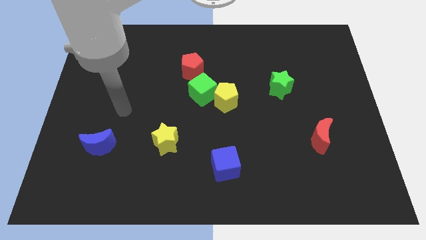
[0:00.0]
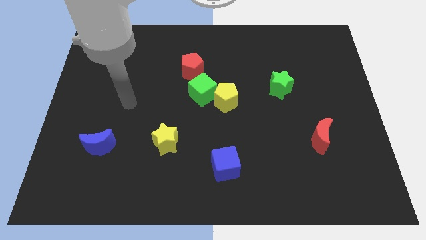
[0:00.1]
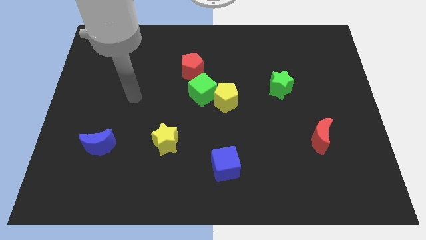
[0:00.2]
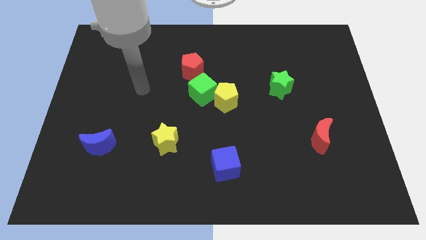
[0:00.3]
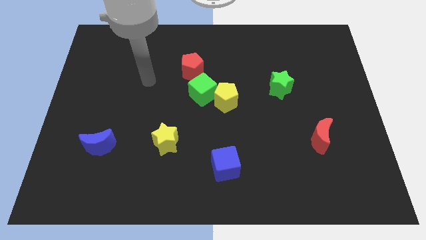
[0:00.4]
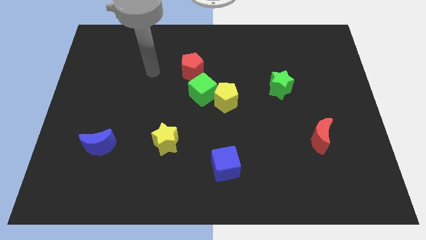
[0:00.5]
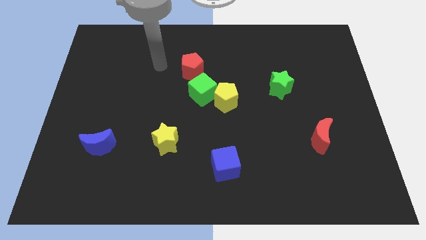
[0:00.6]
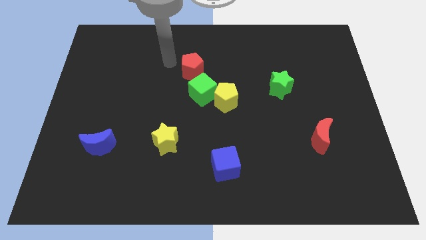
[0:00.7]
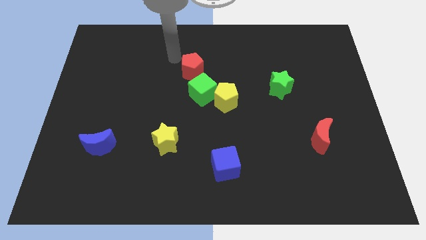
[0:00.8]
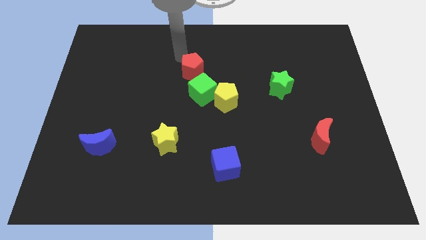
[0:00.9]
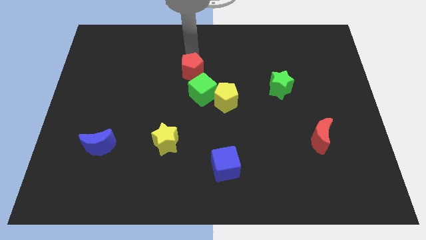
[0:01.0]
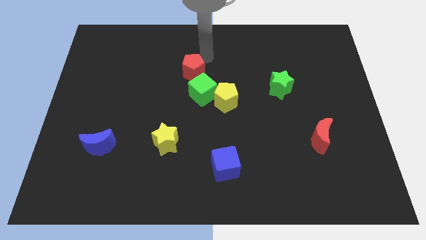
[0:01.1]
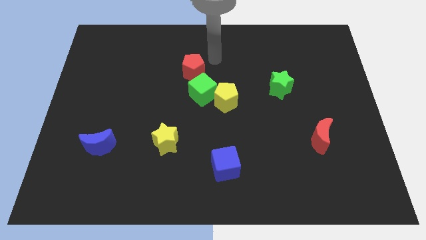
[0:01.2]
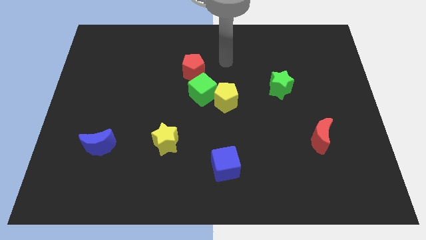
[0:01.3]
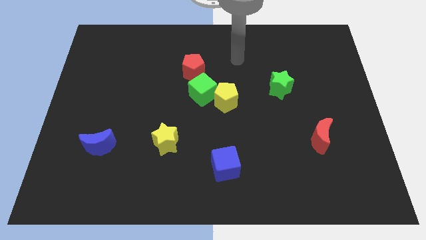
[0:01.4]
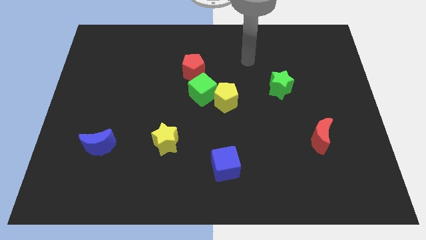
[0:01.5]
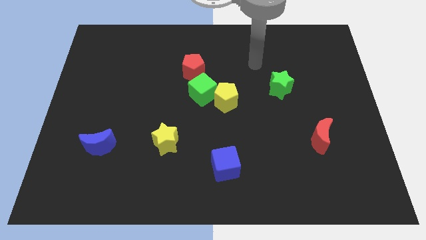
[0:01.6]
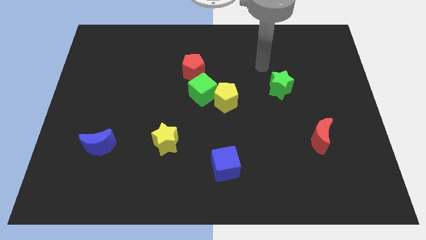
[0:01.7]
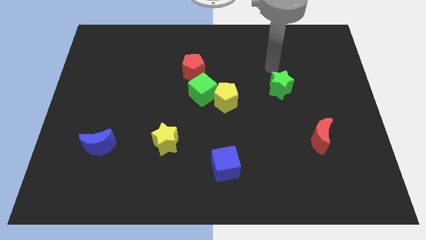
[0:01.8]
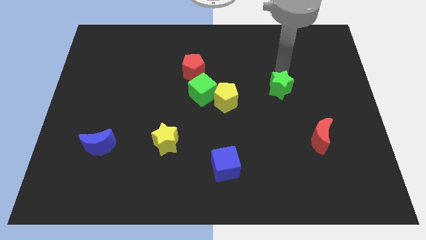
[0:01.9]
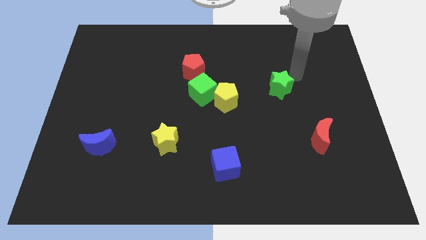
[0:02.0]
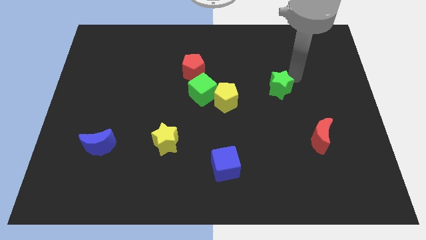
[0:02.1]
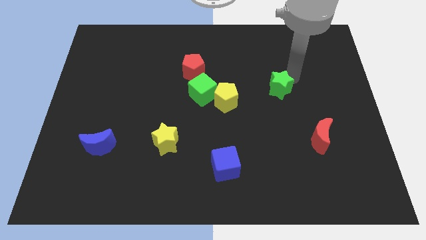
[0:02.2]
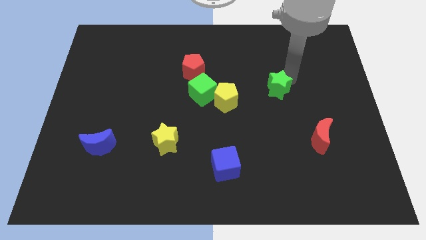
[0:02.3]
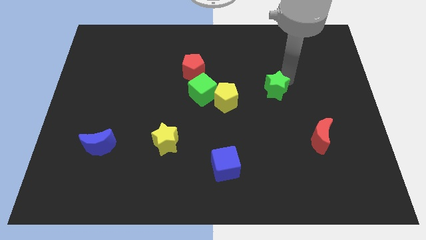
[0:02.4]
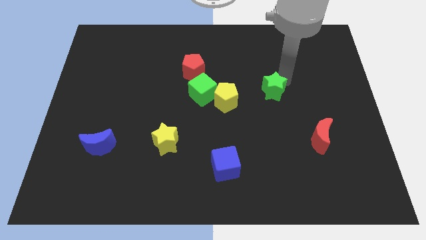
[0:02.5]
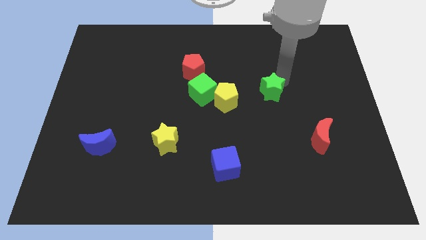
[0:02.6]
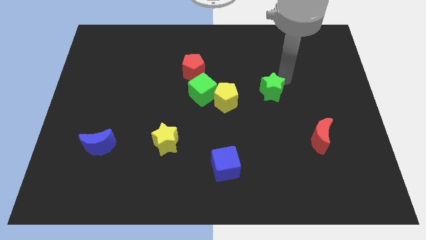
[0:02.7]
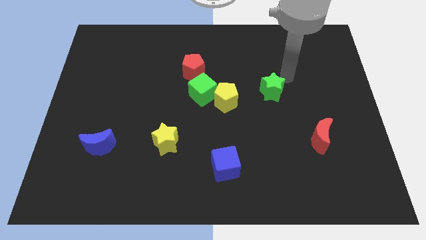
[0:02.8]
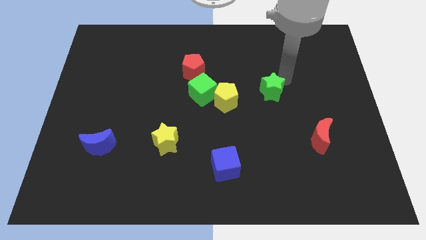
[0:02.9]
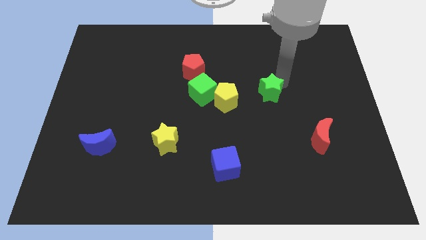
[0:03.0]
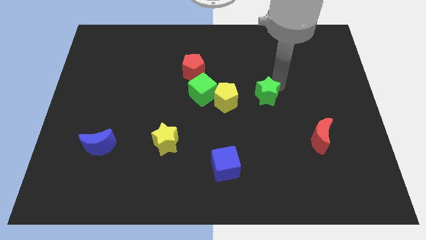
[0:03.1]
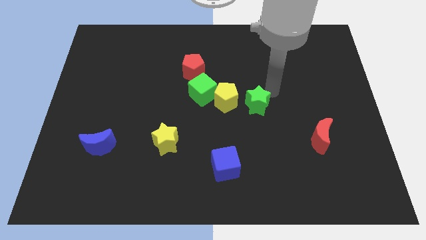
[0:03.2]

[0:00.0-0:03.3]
move the green star downwards and left diagonally a bit

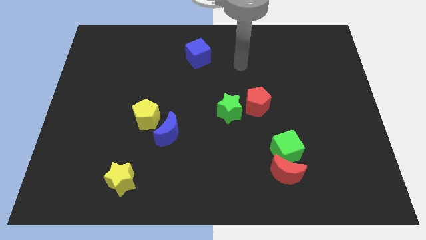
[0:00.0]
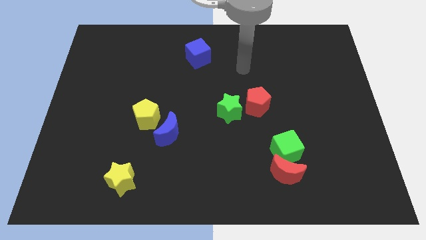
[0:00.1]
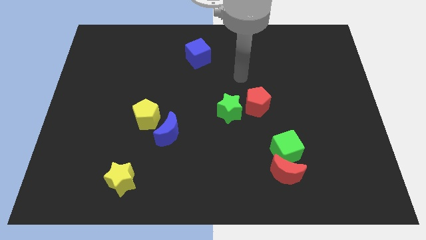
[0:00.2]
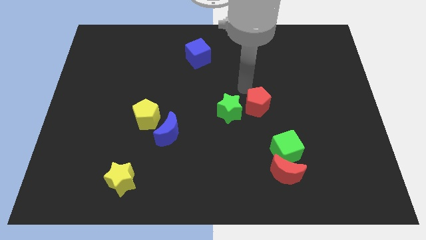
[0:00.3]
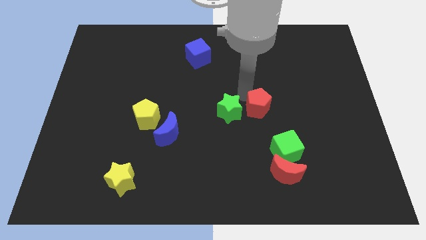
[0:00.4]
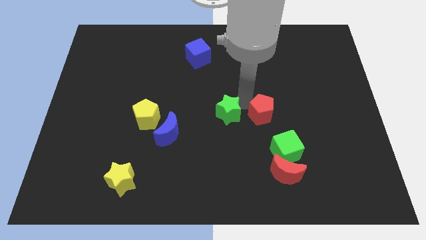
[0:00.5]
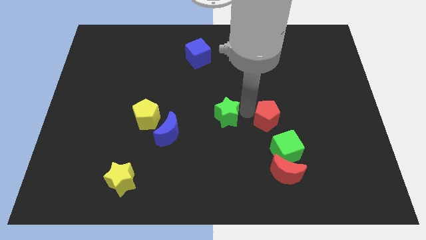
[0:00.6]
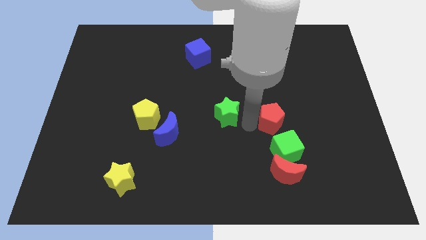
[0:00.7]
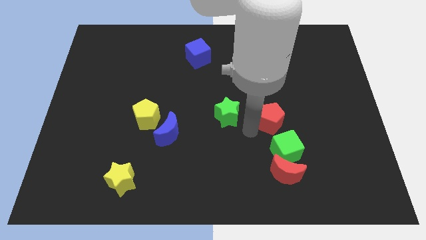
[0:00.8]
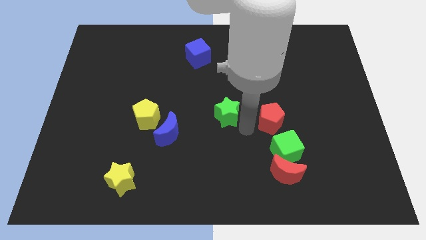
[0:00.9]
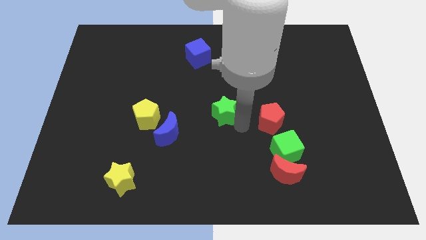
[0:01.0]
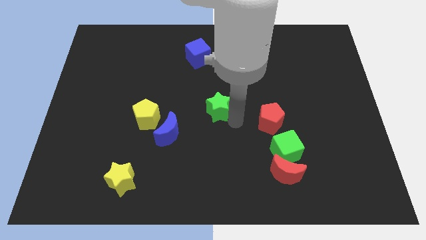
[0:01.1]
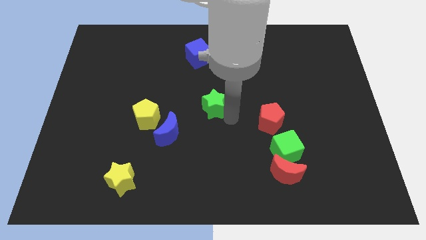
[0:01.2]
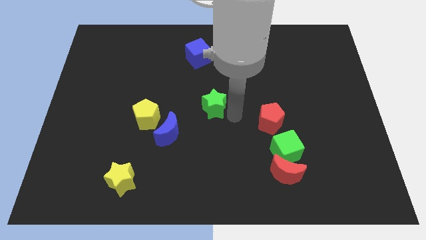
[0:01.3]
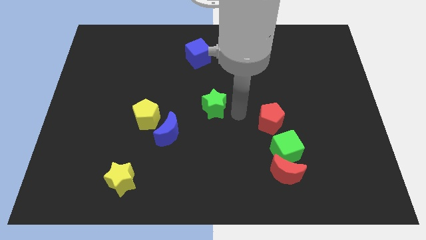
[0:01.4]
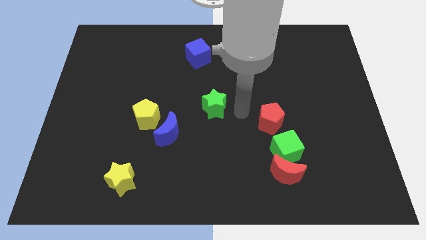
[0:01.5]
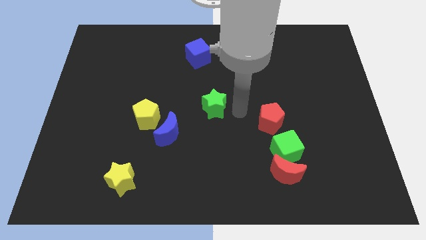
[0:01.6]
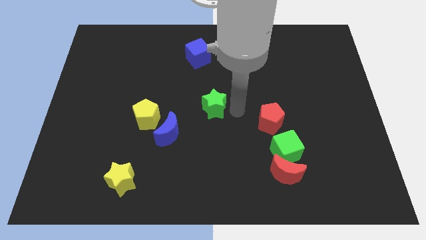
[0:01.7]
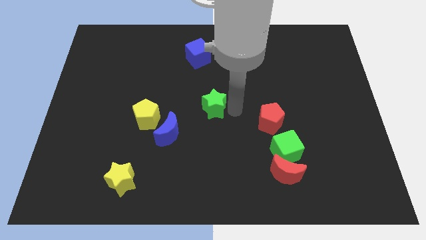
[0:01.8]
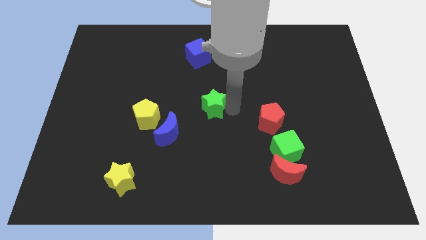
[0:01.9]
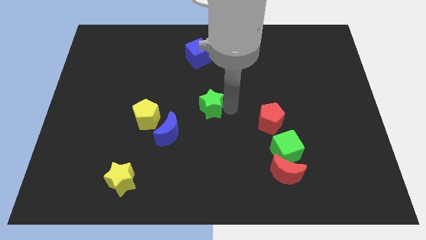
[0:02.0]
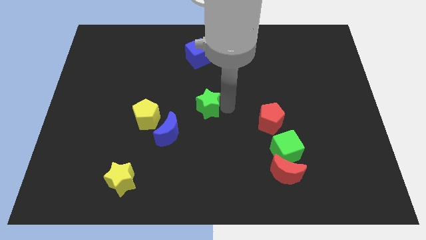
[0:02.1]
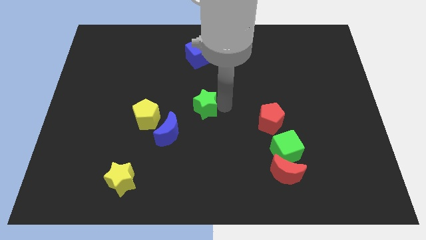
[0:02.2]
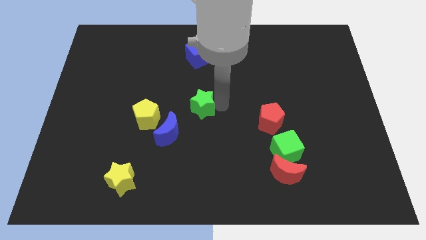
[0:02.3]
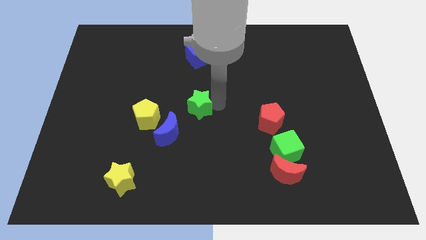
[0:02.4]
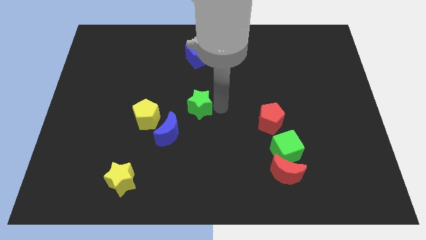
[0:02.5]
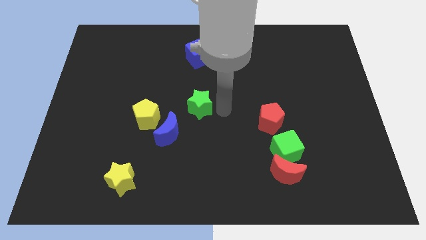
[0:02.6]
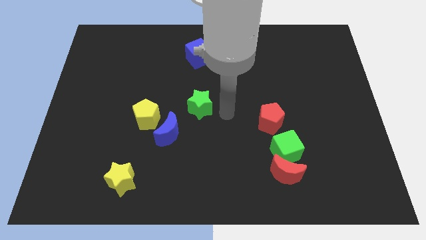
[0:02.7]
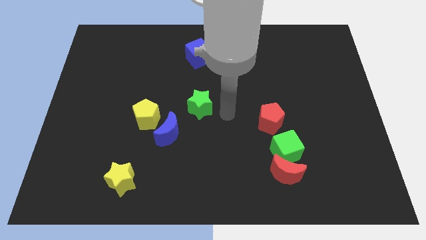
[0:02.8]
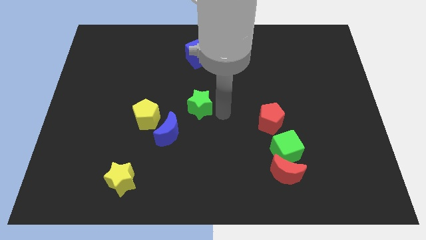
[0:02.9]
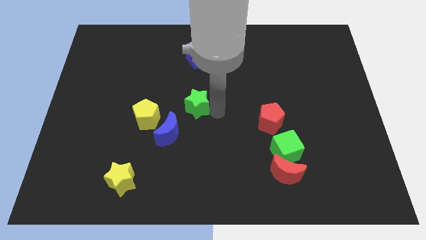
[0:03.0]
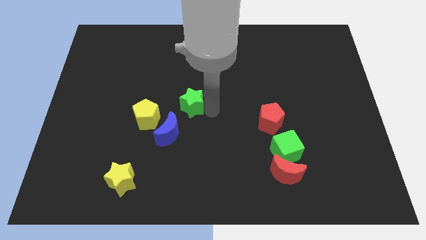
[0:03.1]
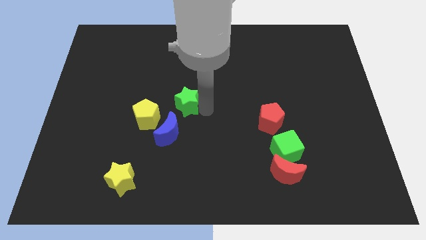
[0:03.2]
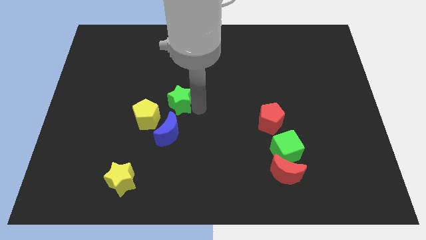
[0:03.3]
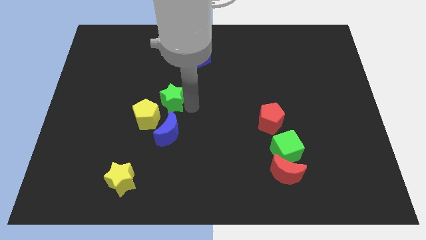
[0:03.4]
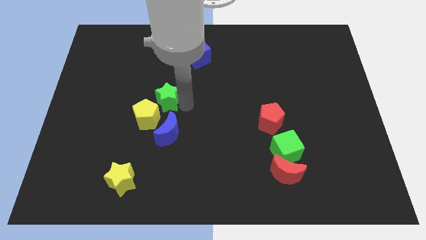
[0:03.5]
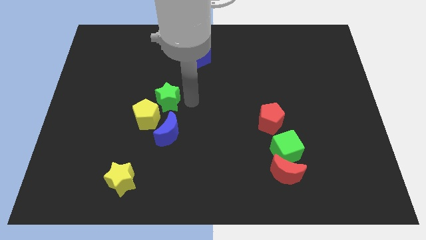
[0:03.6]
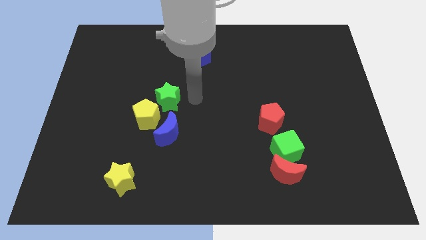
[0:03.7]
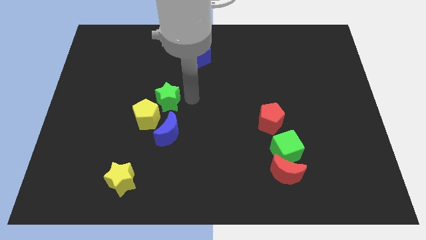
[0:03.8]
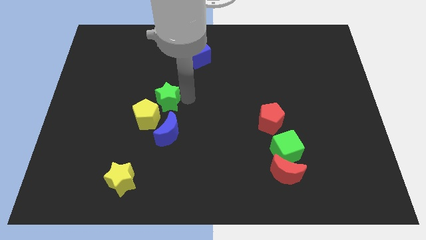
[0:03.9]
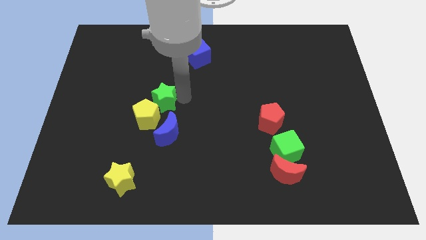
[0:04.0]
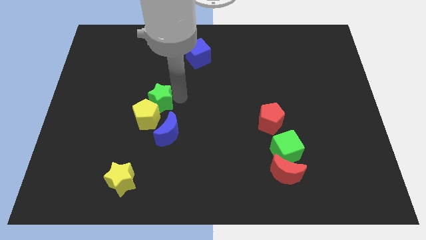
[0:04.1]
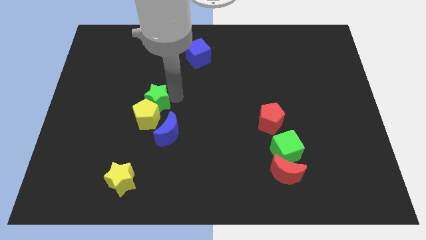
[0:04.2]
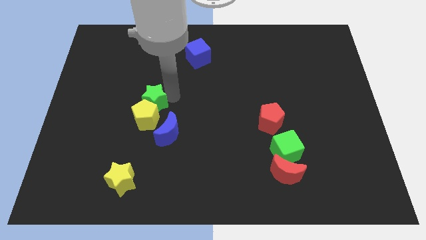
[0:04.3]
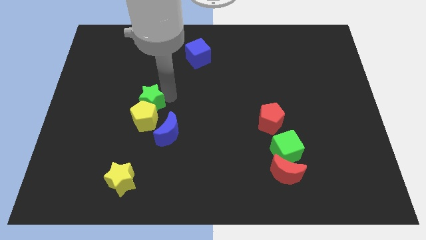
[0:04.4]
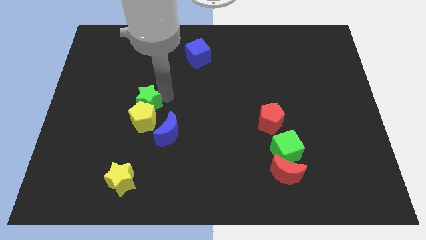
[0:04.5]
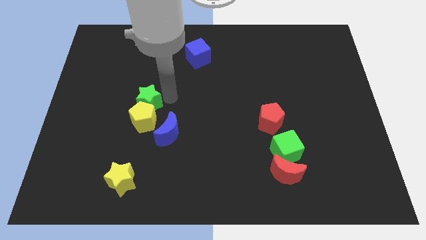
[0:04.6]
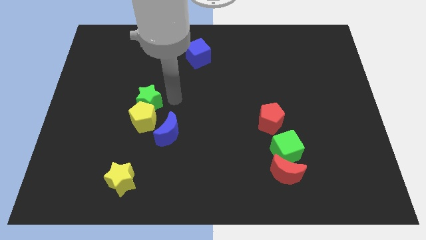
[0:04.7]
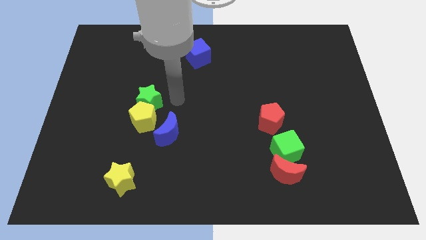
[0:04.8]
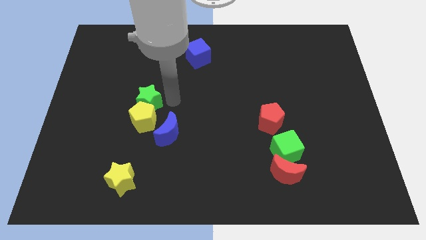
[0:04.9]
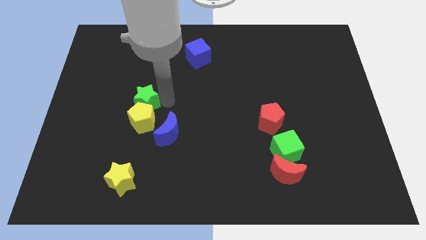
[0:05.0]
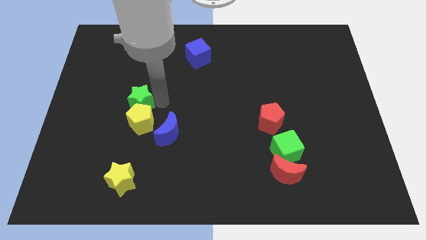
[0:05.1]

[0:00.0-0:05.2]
move the green star left
